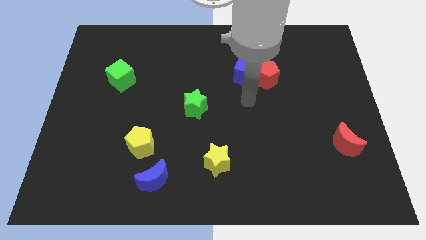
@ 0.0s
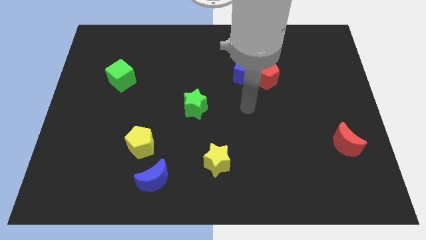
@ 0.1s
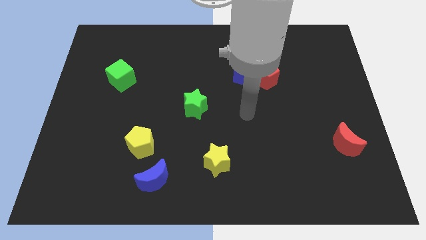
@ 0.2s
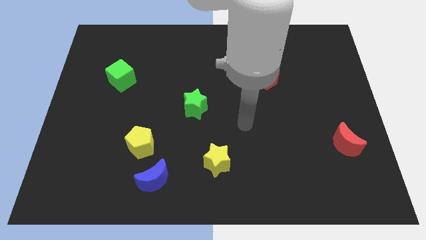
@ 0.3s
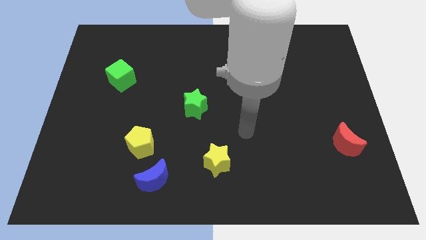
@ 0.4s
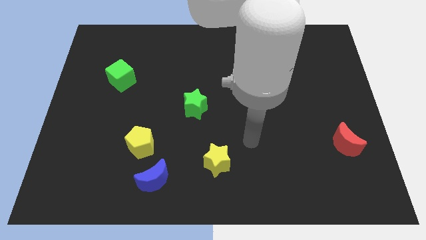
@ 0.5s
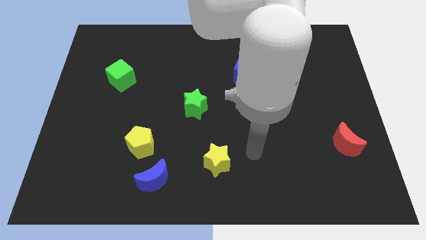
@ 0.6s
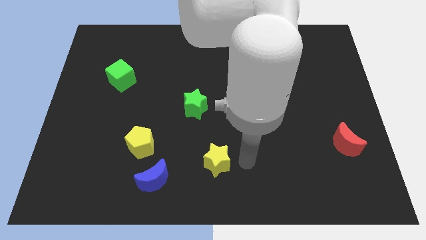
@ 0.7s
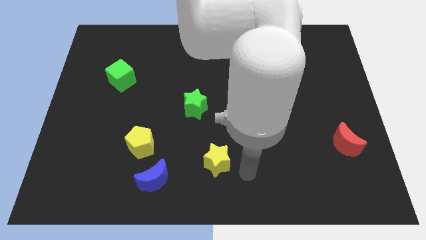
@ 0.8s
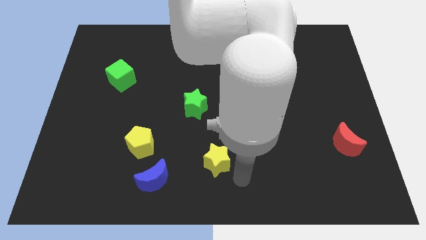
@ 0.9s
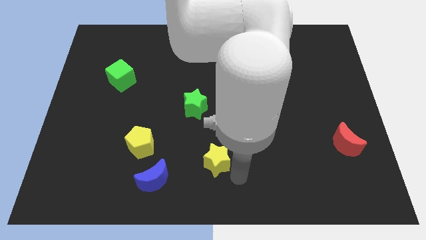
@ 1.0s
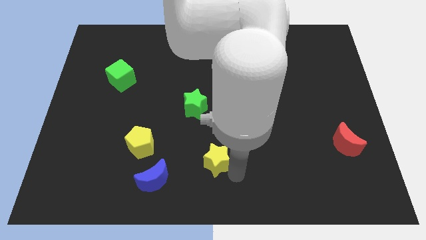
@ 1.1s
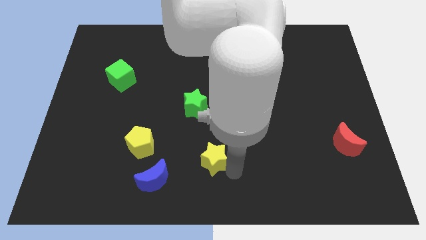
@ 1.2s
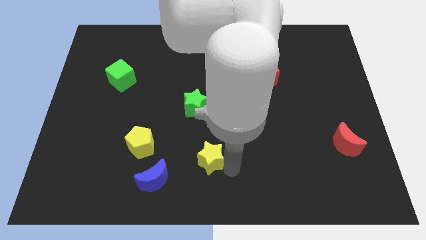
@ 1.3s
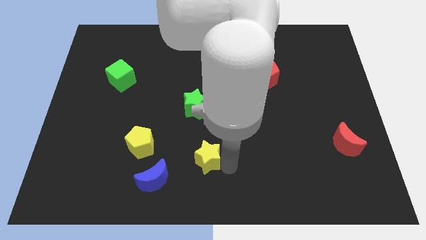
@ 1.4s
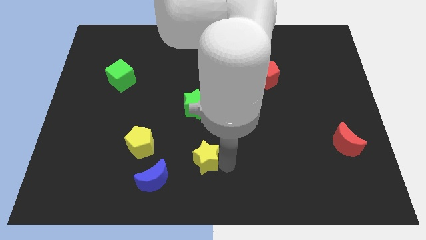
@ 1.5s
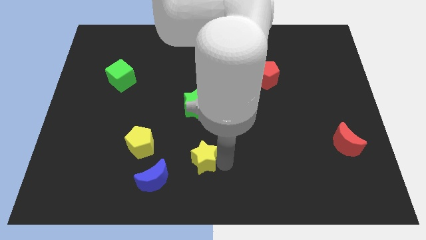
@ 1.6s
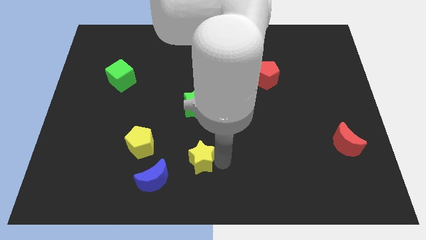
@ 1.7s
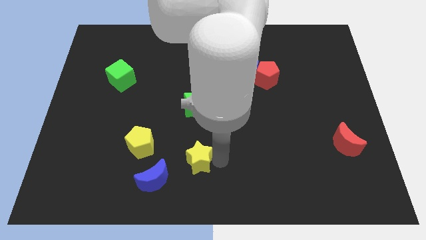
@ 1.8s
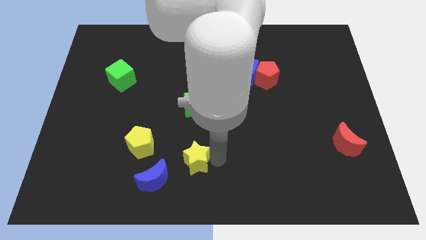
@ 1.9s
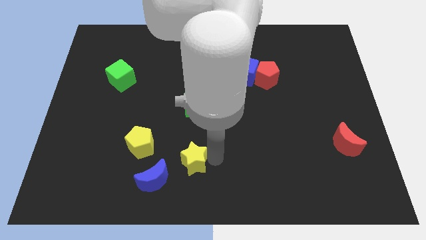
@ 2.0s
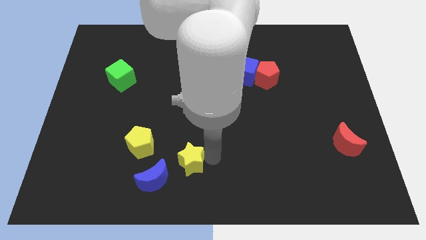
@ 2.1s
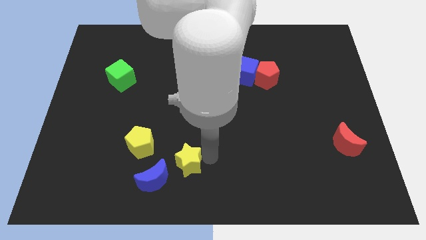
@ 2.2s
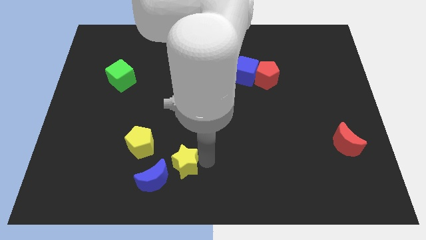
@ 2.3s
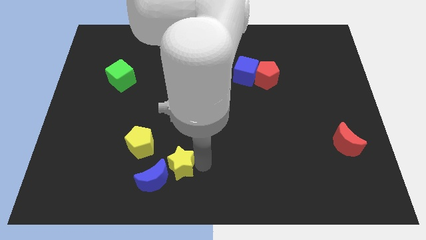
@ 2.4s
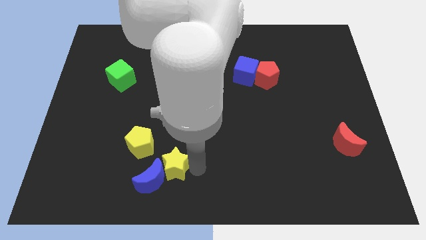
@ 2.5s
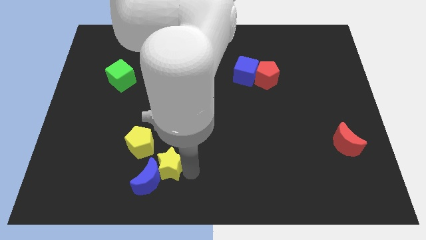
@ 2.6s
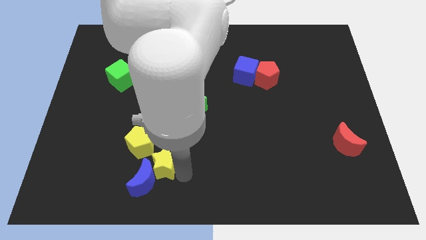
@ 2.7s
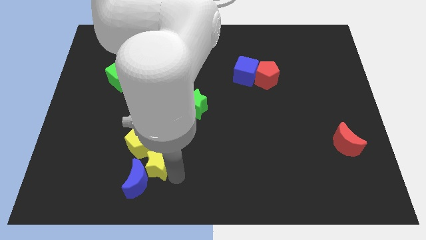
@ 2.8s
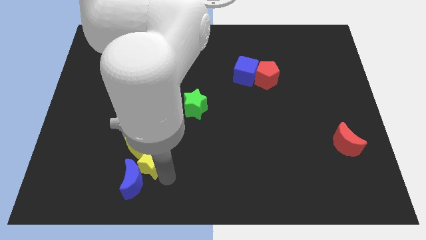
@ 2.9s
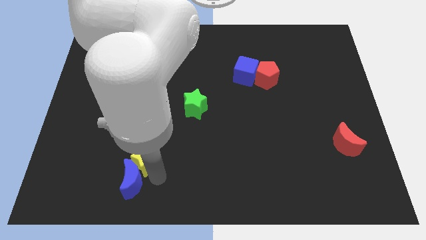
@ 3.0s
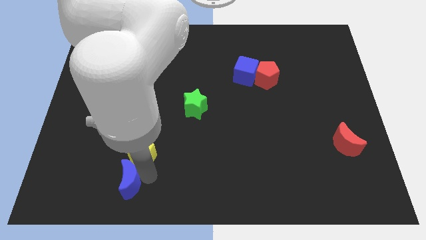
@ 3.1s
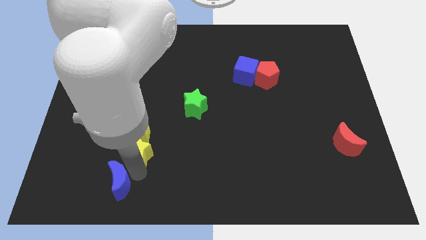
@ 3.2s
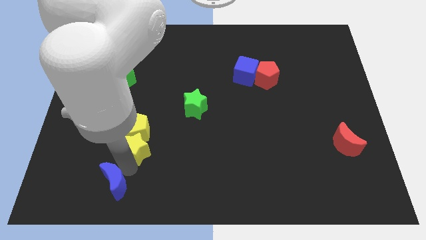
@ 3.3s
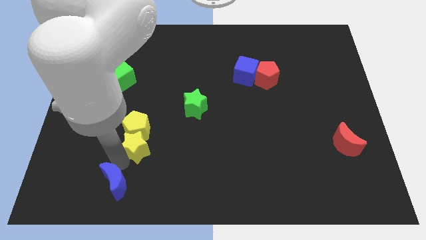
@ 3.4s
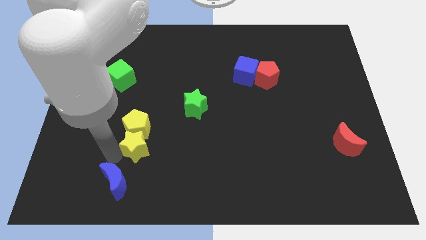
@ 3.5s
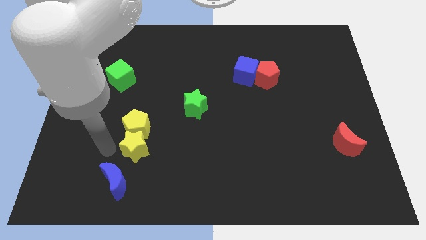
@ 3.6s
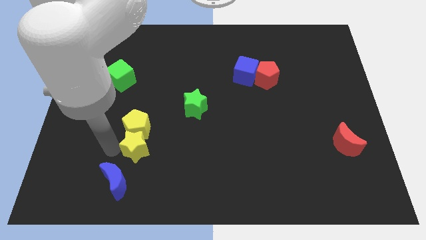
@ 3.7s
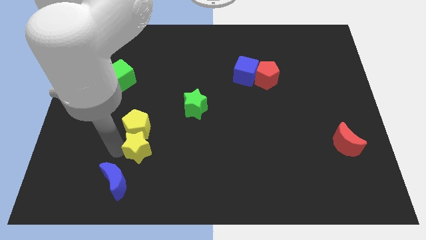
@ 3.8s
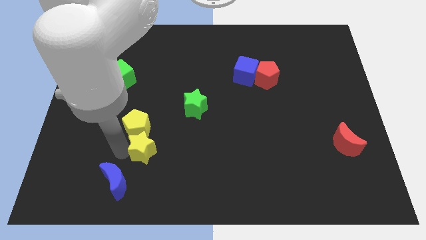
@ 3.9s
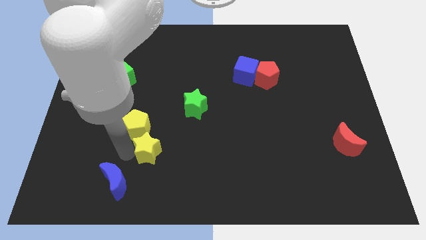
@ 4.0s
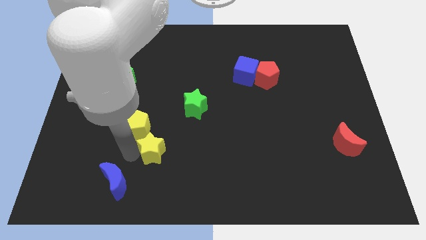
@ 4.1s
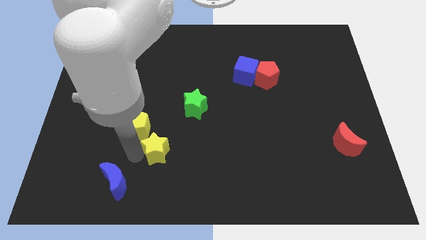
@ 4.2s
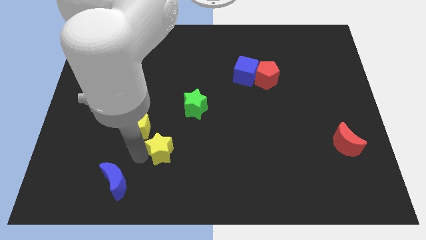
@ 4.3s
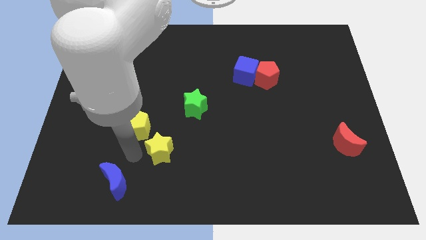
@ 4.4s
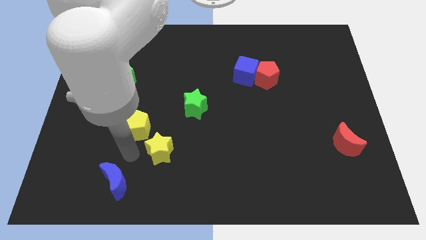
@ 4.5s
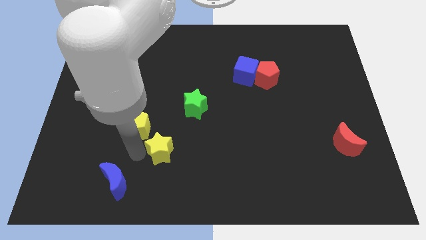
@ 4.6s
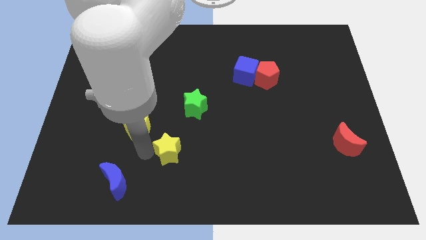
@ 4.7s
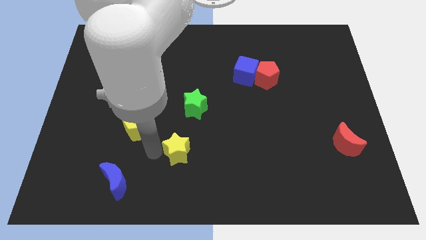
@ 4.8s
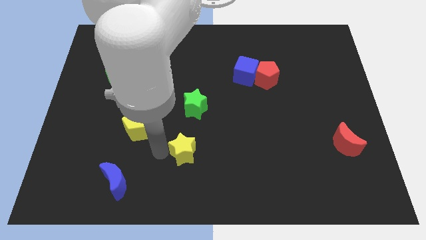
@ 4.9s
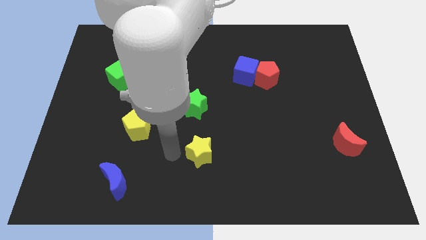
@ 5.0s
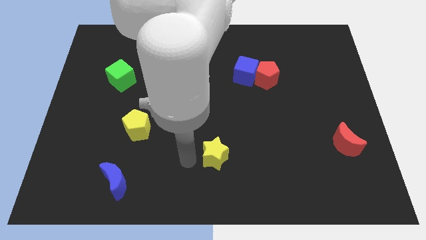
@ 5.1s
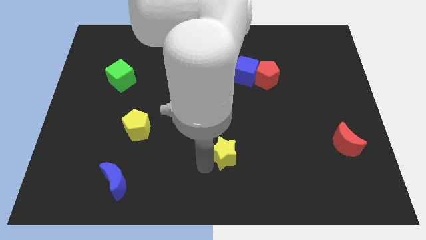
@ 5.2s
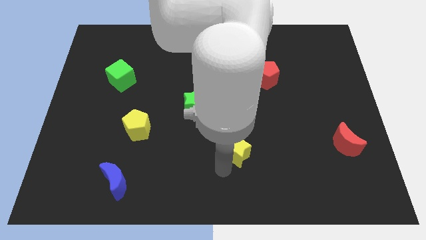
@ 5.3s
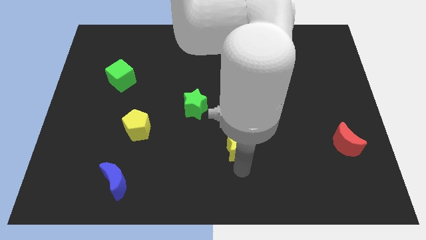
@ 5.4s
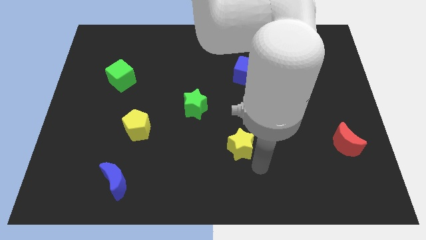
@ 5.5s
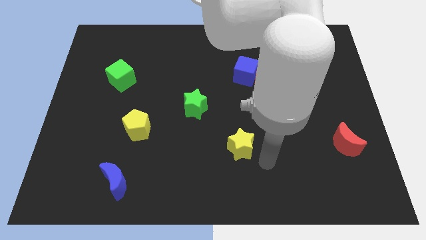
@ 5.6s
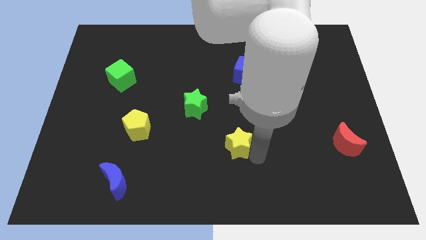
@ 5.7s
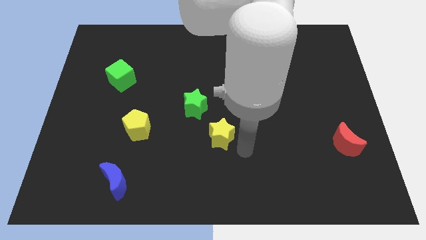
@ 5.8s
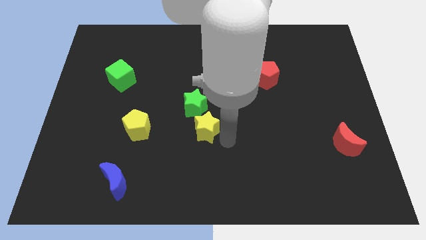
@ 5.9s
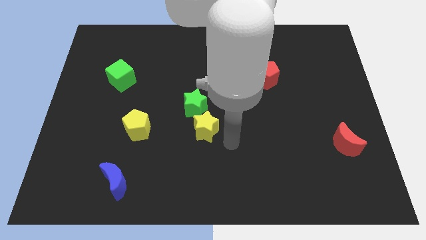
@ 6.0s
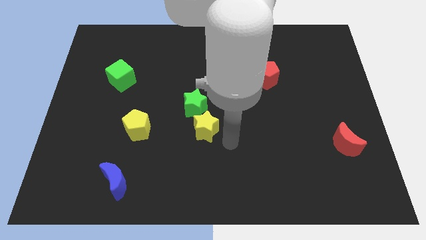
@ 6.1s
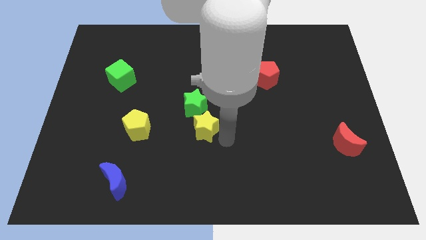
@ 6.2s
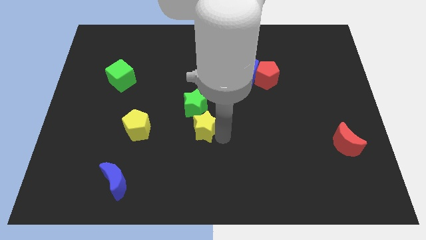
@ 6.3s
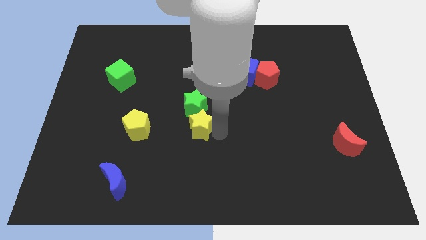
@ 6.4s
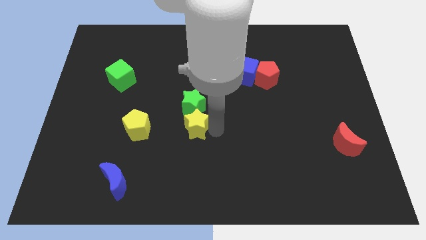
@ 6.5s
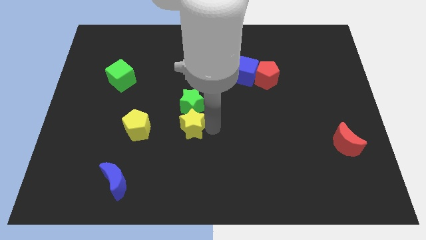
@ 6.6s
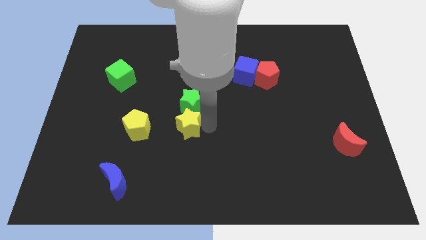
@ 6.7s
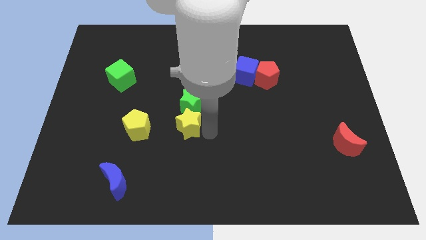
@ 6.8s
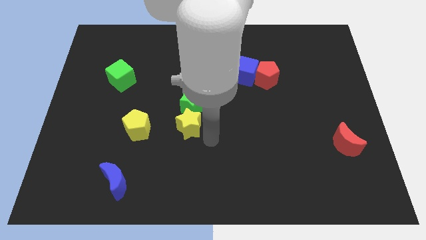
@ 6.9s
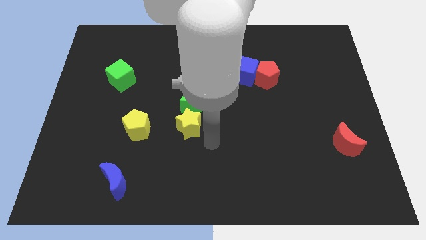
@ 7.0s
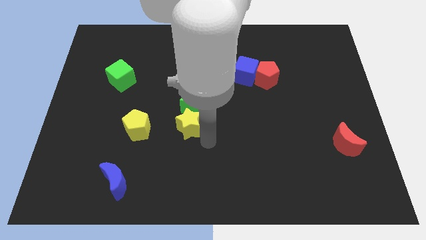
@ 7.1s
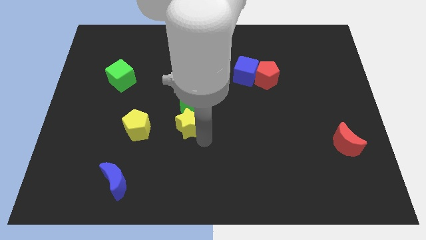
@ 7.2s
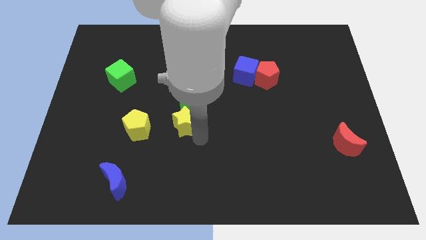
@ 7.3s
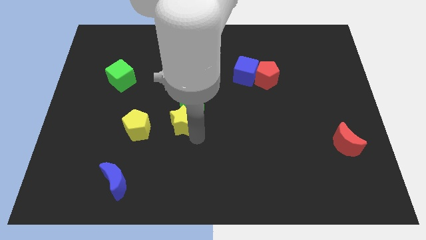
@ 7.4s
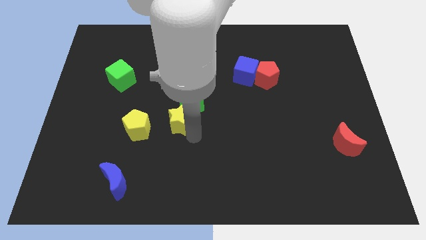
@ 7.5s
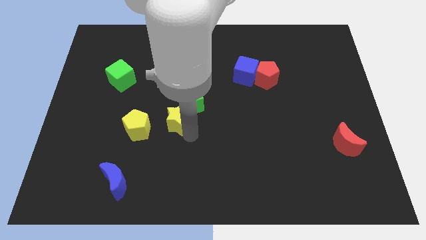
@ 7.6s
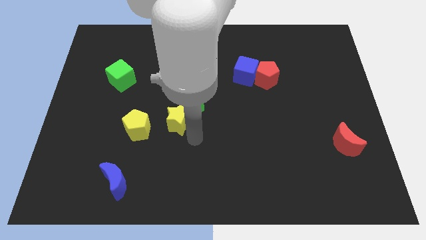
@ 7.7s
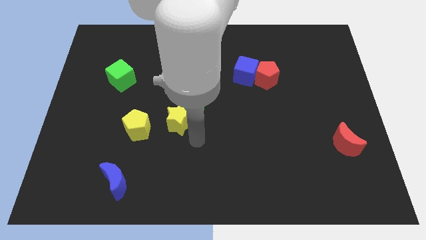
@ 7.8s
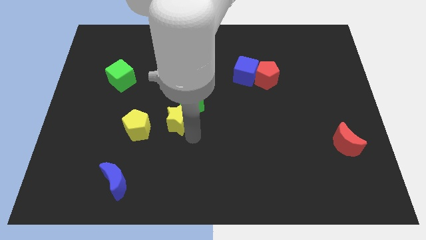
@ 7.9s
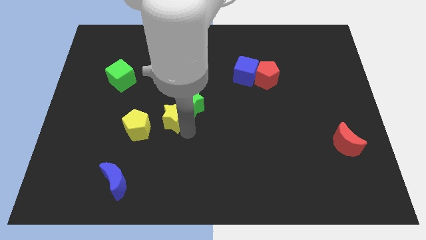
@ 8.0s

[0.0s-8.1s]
slide the yellow star diagonally up and to the right of the yellow pentagon
